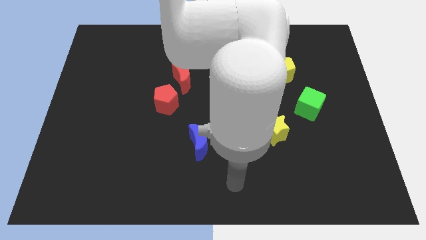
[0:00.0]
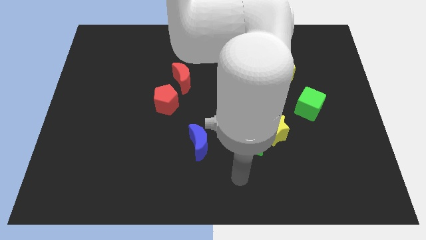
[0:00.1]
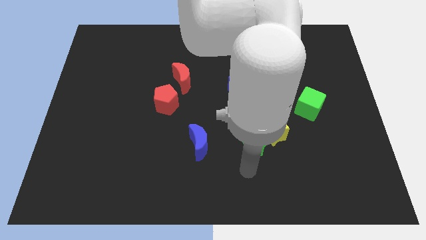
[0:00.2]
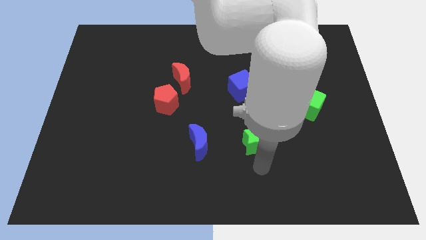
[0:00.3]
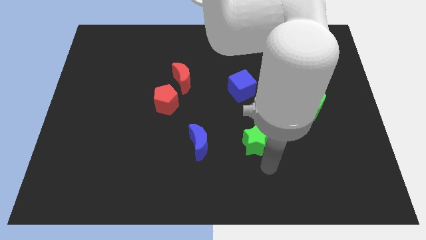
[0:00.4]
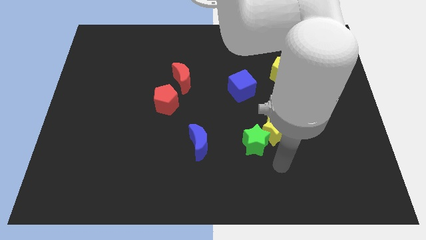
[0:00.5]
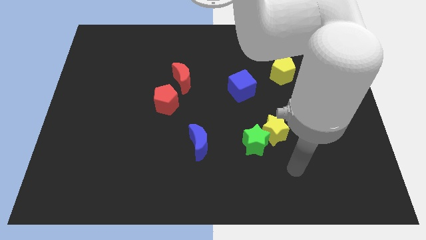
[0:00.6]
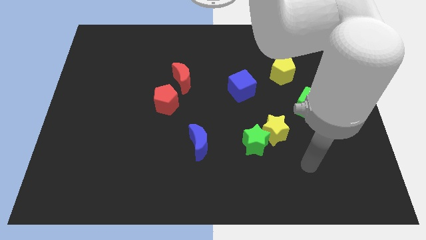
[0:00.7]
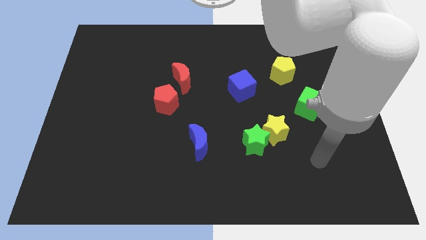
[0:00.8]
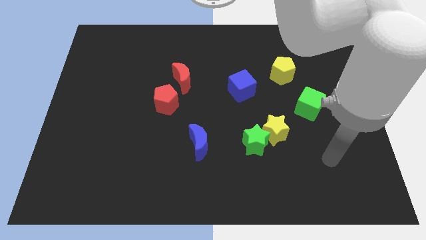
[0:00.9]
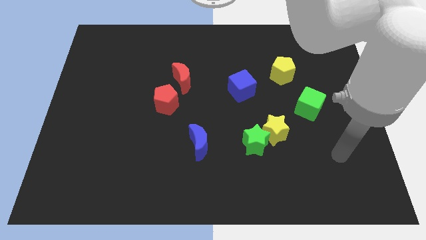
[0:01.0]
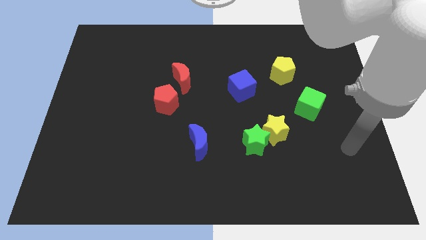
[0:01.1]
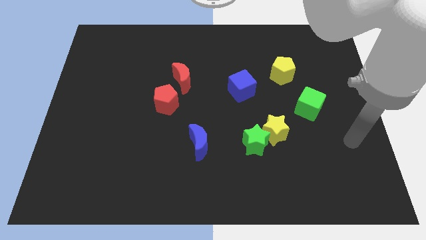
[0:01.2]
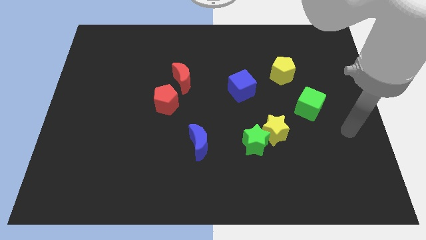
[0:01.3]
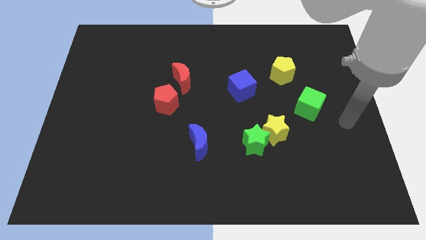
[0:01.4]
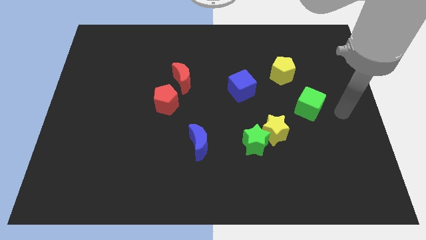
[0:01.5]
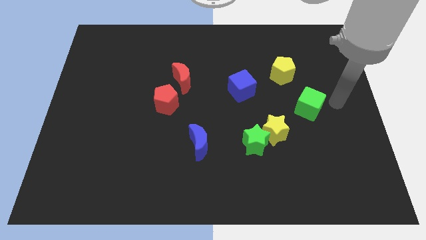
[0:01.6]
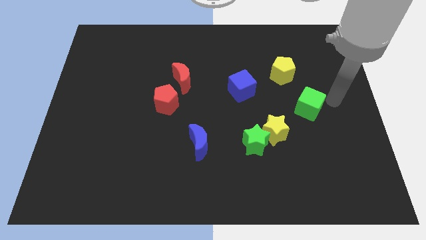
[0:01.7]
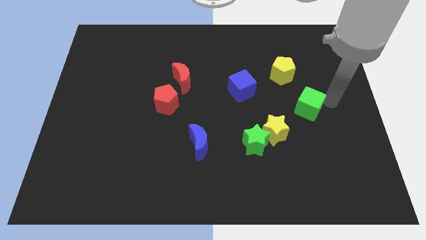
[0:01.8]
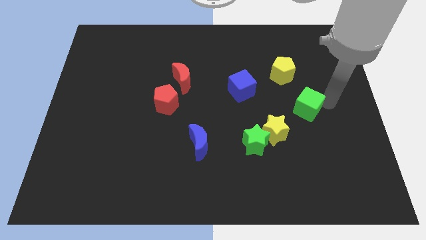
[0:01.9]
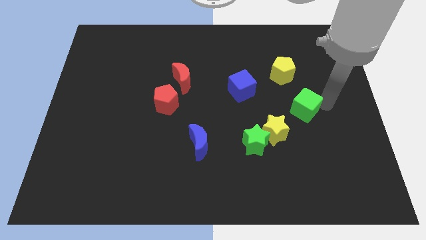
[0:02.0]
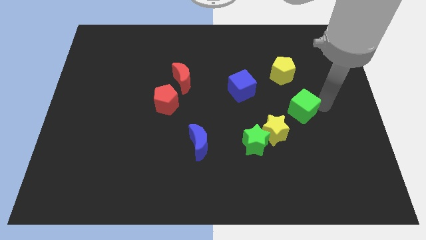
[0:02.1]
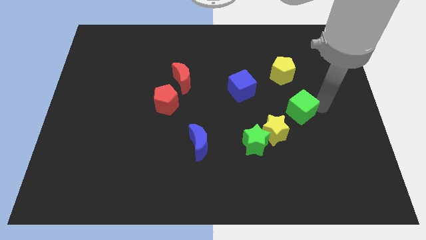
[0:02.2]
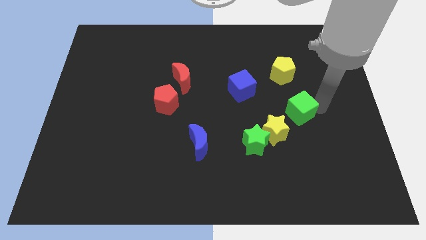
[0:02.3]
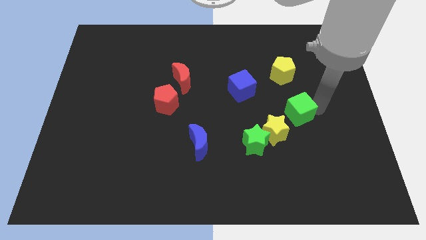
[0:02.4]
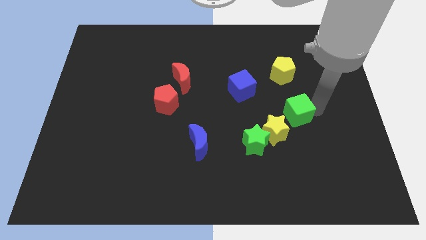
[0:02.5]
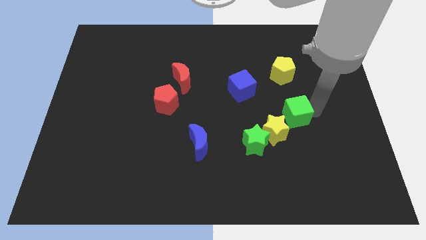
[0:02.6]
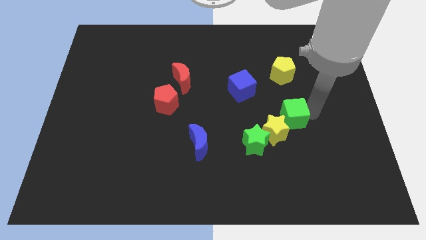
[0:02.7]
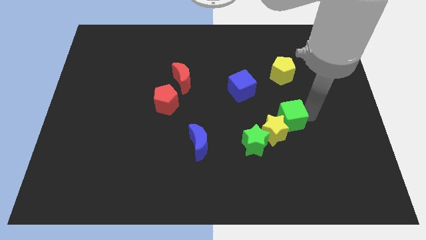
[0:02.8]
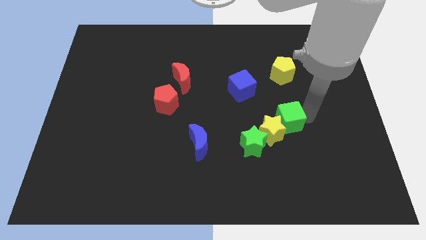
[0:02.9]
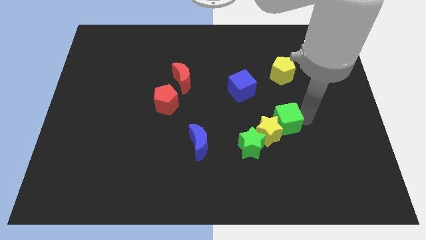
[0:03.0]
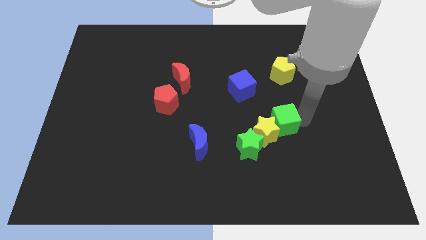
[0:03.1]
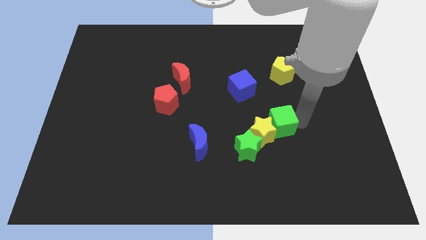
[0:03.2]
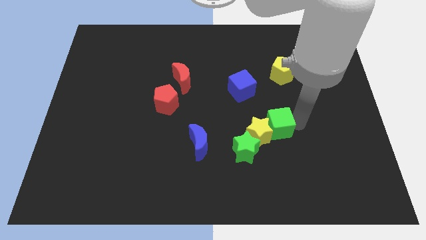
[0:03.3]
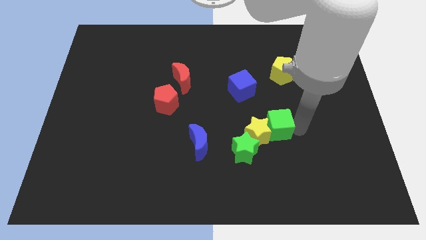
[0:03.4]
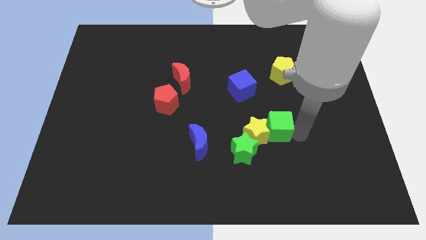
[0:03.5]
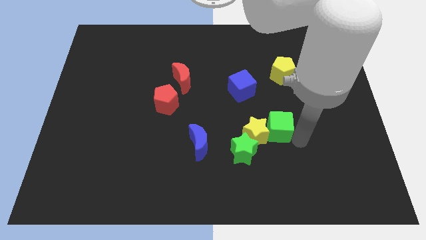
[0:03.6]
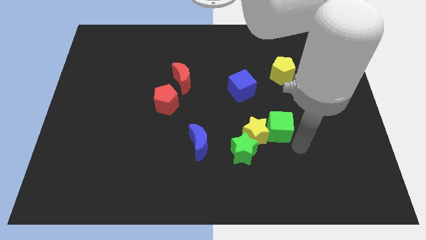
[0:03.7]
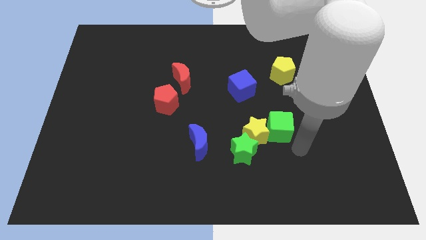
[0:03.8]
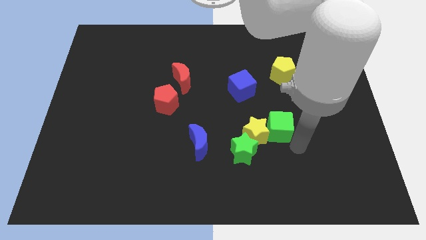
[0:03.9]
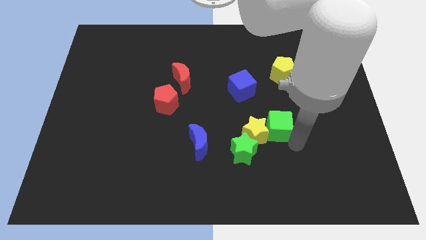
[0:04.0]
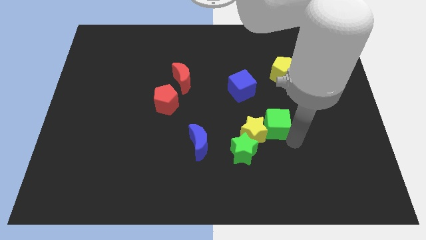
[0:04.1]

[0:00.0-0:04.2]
slightly slide the green cube to the left

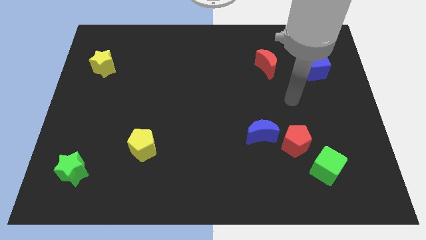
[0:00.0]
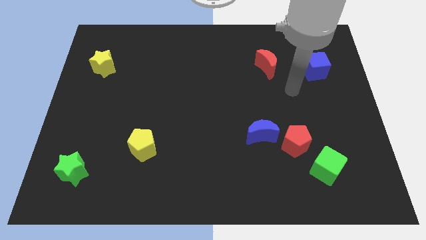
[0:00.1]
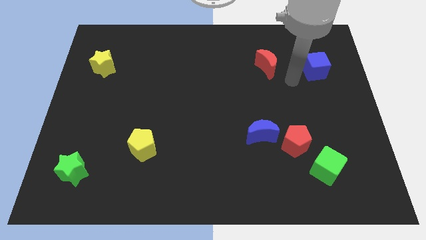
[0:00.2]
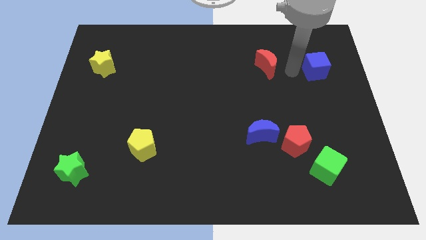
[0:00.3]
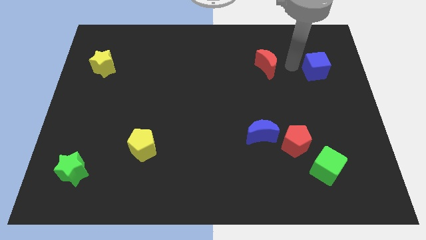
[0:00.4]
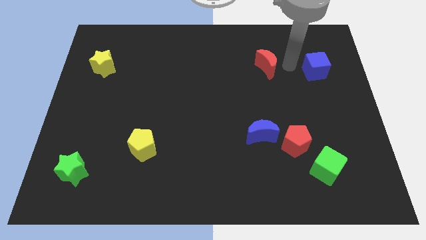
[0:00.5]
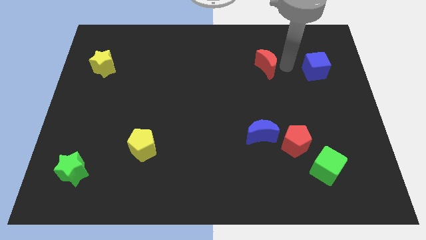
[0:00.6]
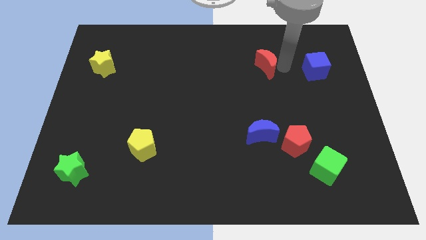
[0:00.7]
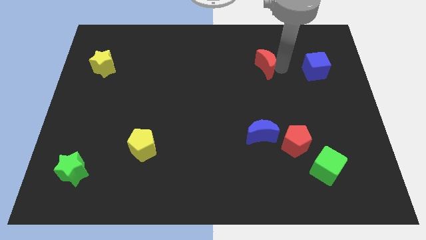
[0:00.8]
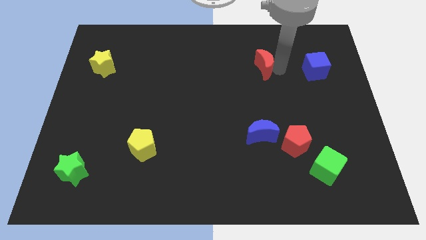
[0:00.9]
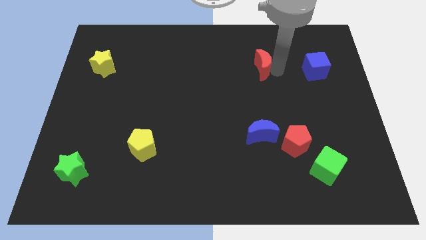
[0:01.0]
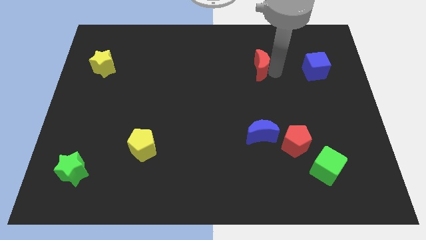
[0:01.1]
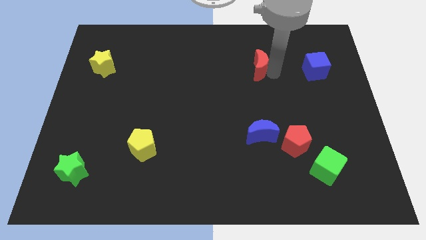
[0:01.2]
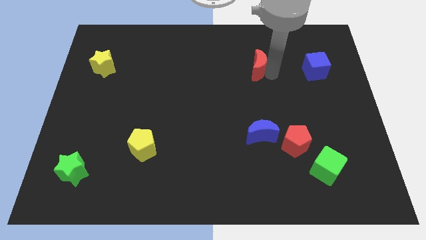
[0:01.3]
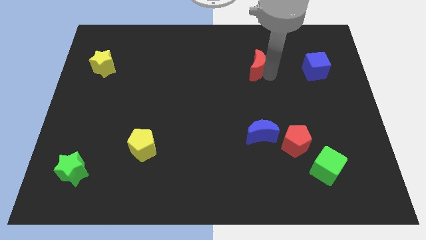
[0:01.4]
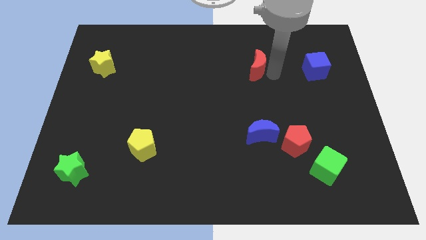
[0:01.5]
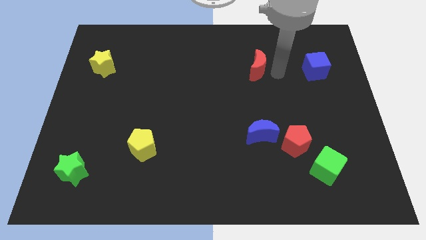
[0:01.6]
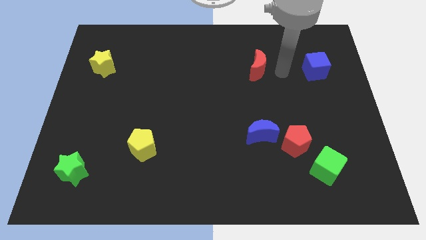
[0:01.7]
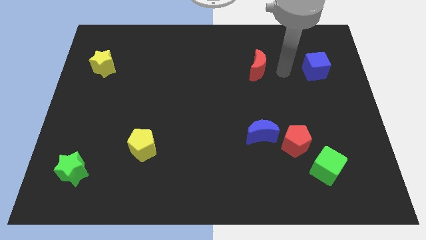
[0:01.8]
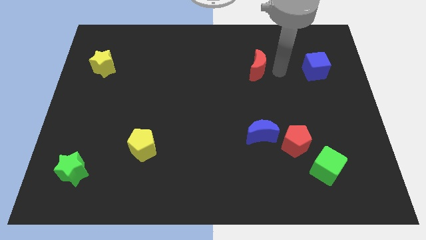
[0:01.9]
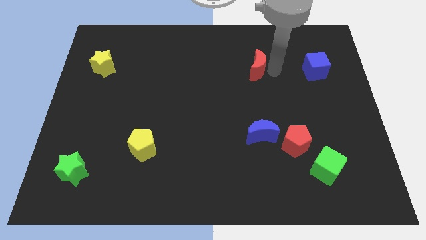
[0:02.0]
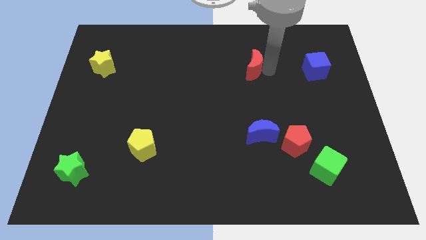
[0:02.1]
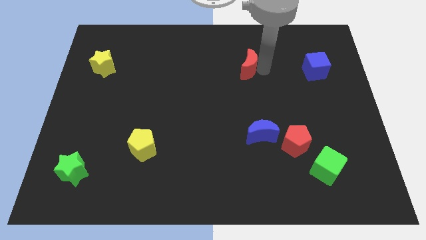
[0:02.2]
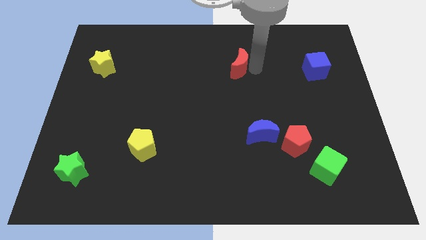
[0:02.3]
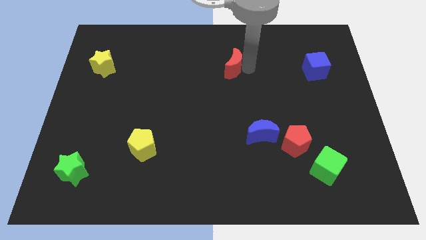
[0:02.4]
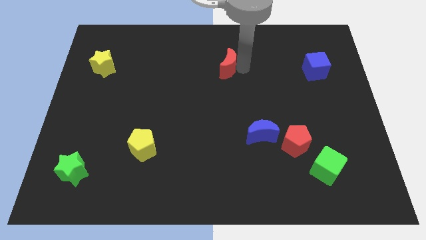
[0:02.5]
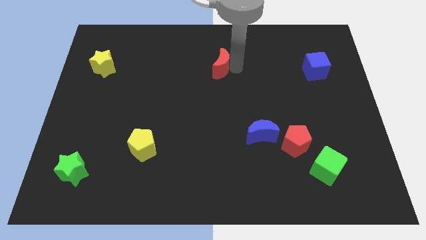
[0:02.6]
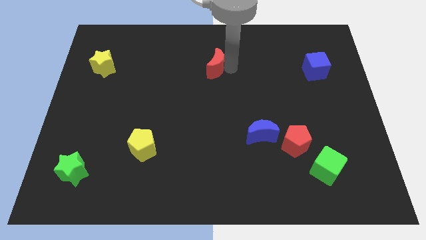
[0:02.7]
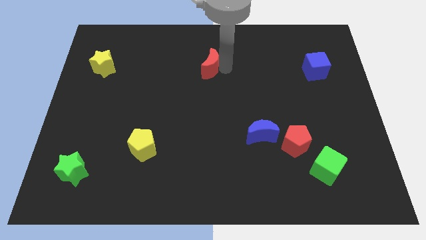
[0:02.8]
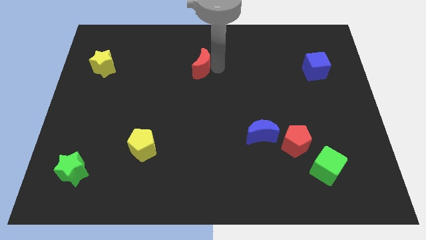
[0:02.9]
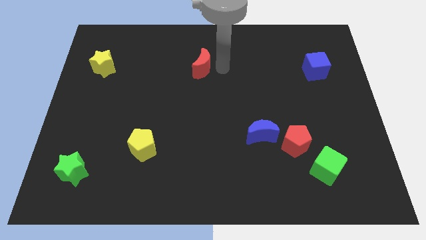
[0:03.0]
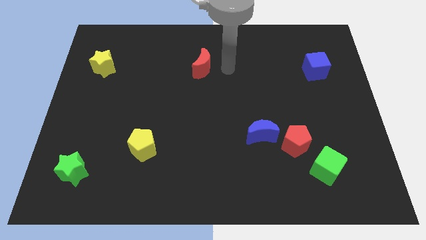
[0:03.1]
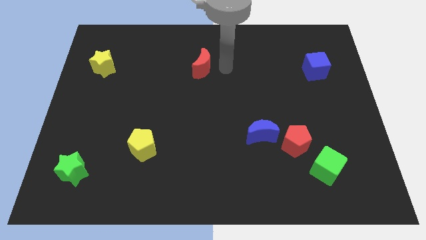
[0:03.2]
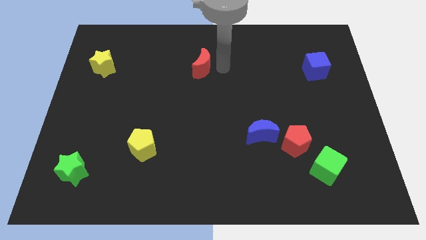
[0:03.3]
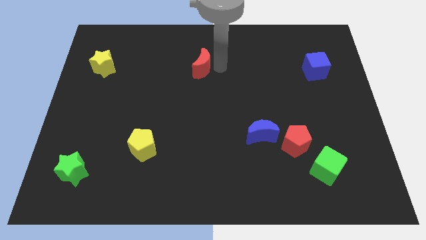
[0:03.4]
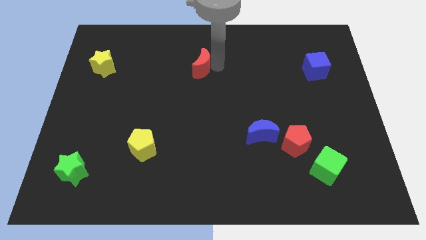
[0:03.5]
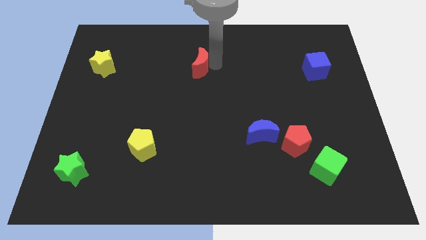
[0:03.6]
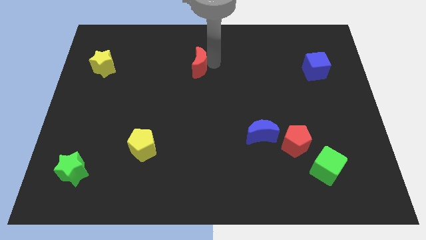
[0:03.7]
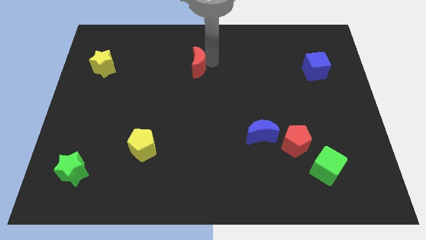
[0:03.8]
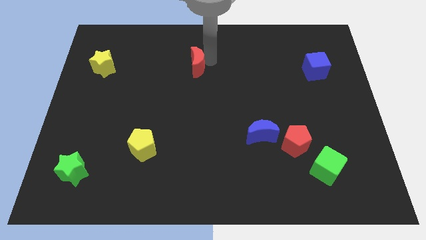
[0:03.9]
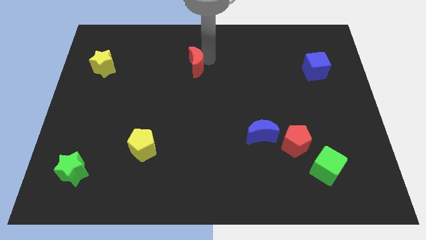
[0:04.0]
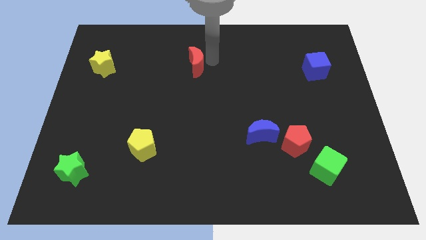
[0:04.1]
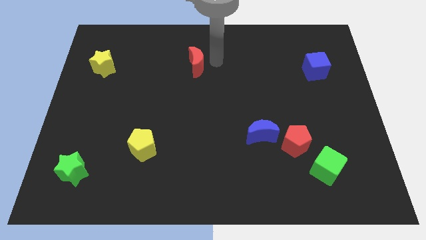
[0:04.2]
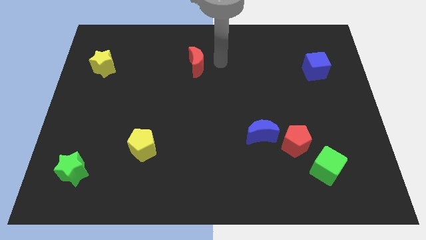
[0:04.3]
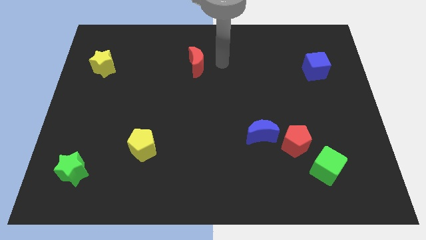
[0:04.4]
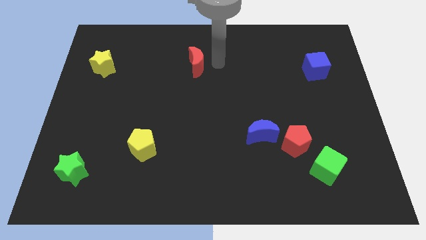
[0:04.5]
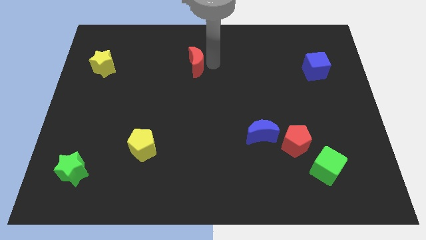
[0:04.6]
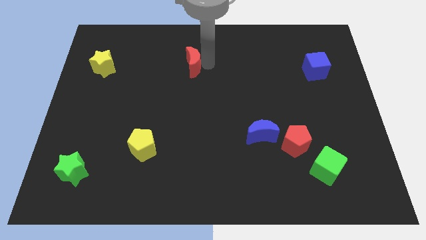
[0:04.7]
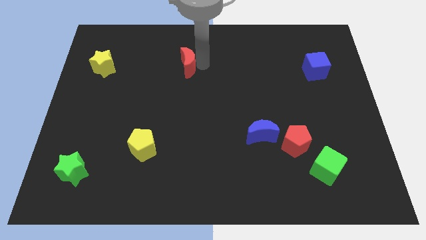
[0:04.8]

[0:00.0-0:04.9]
slide the red moon left
